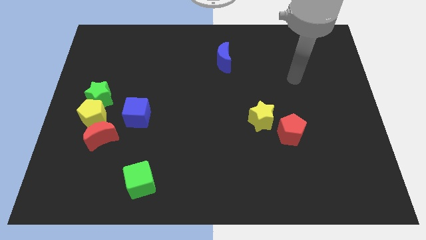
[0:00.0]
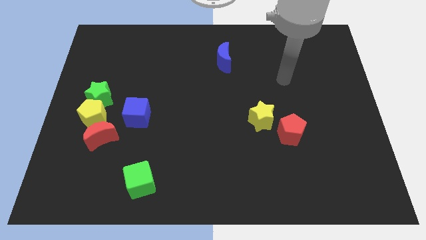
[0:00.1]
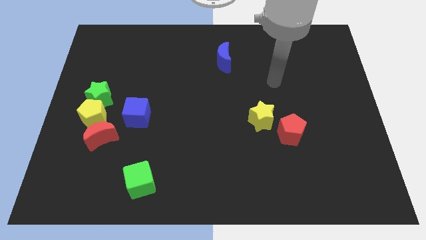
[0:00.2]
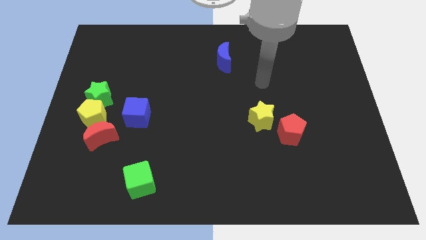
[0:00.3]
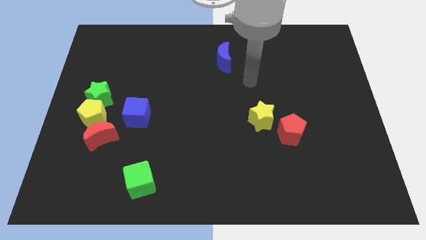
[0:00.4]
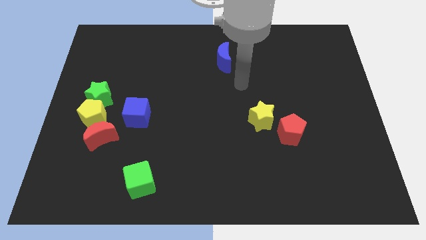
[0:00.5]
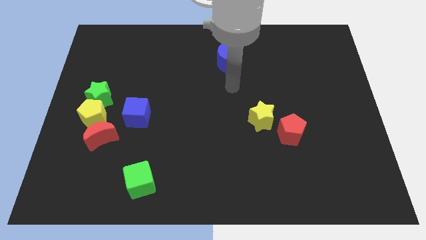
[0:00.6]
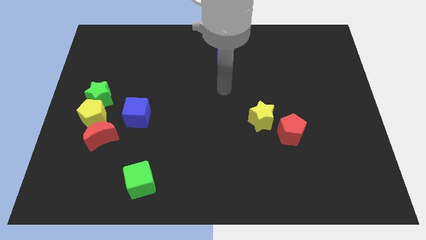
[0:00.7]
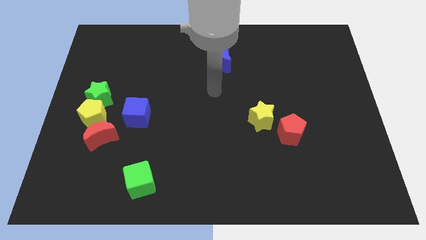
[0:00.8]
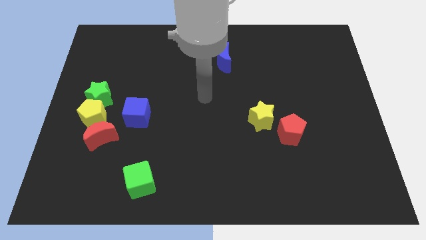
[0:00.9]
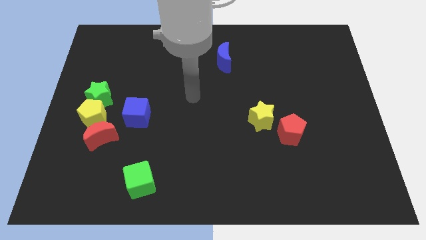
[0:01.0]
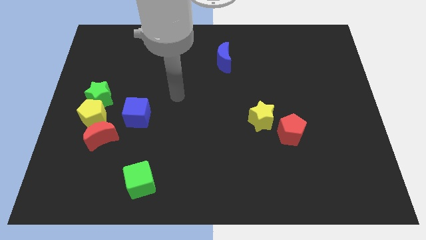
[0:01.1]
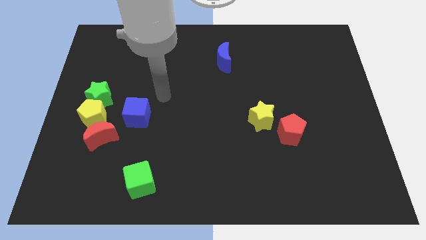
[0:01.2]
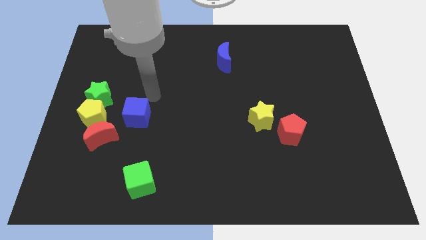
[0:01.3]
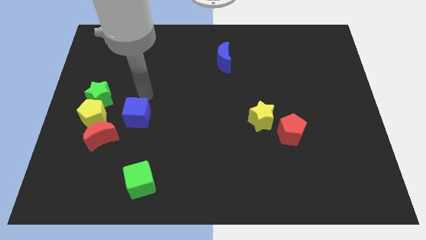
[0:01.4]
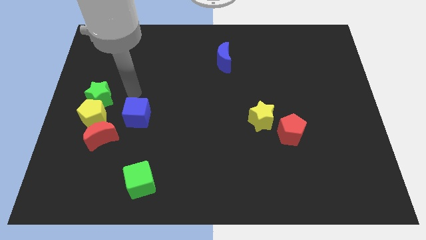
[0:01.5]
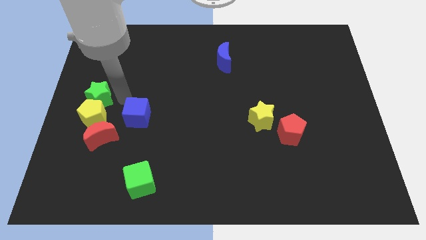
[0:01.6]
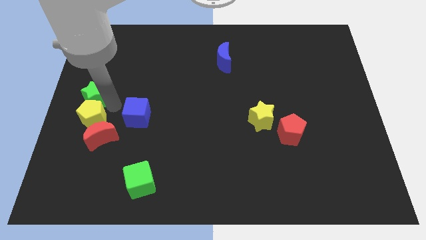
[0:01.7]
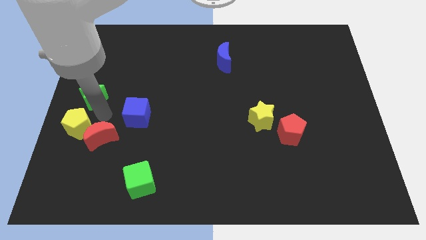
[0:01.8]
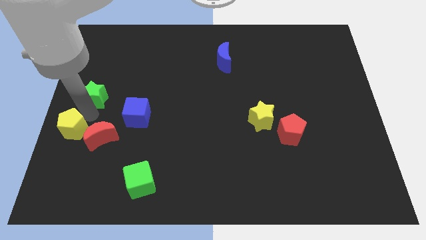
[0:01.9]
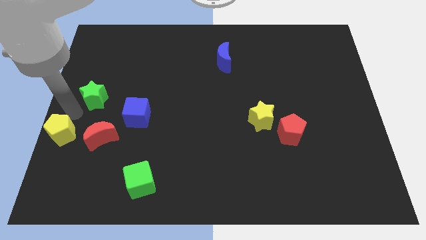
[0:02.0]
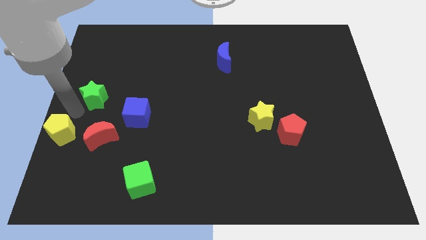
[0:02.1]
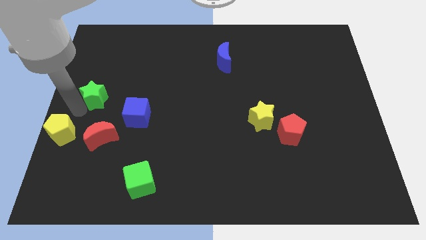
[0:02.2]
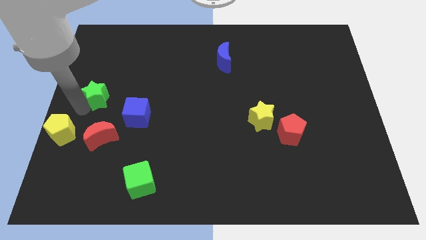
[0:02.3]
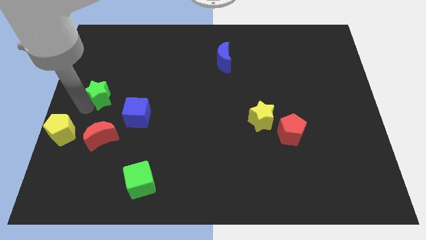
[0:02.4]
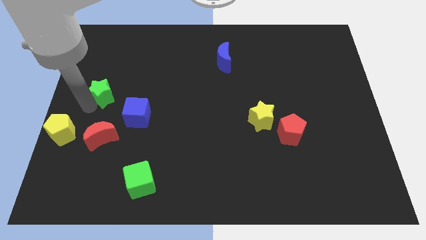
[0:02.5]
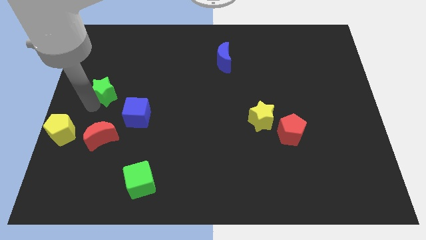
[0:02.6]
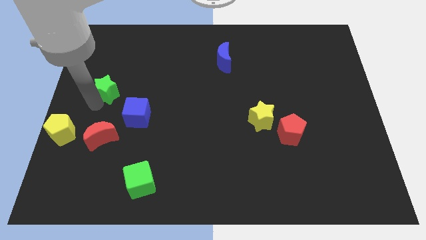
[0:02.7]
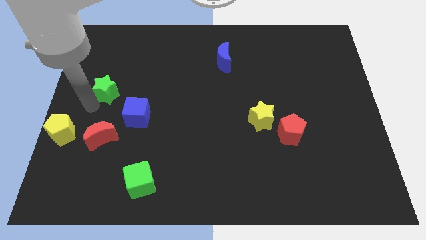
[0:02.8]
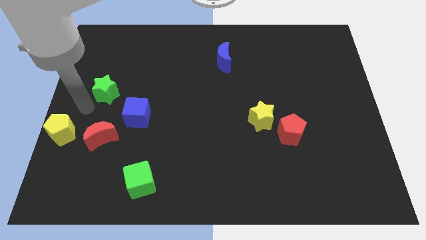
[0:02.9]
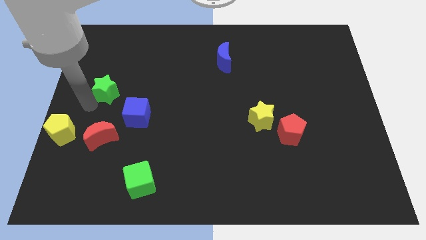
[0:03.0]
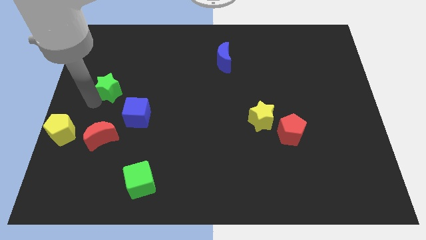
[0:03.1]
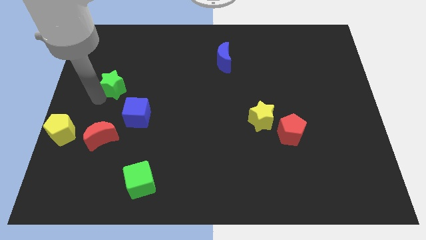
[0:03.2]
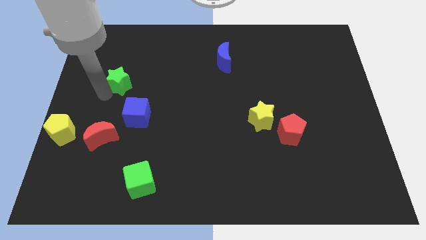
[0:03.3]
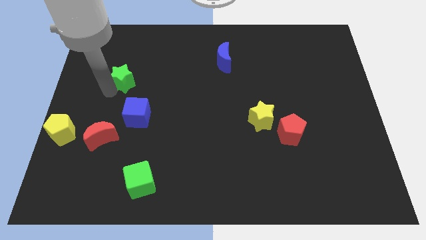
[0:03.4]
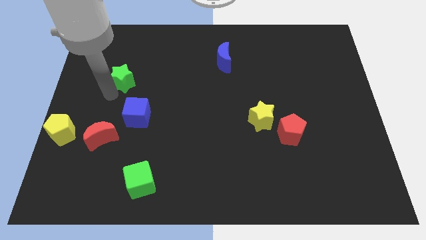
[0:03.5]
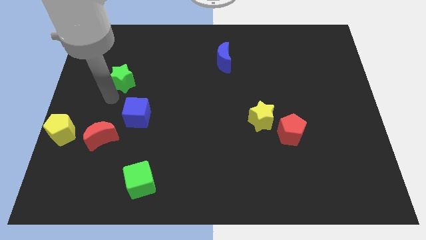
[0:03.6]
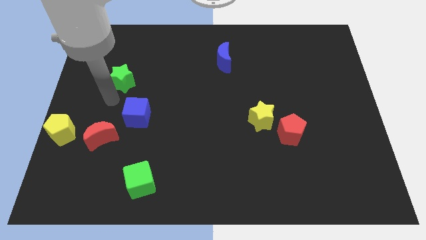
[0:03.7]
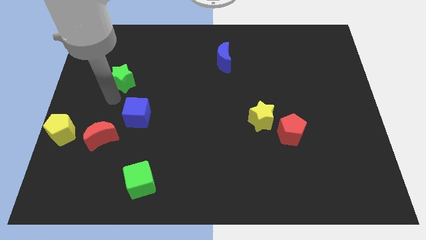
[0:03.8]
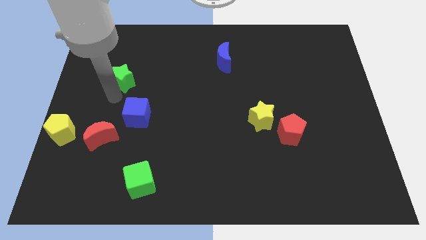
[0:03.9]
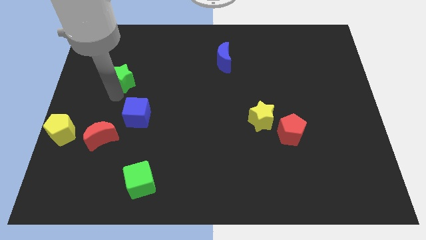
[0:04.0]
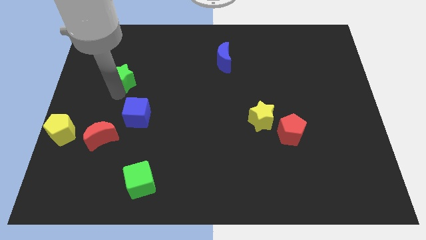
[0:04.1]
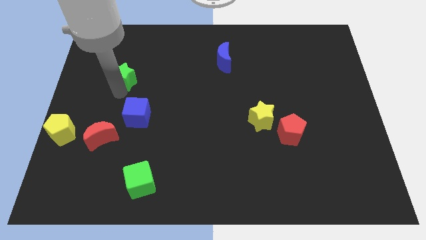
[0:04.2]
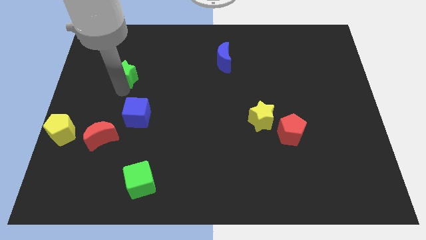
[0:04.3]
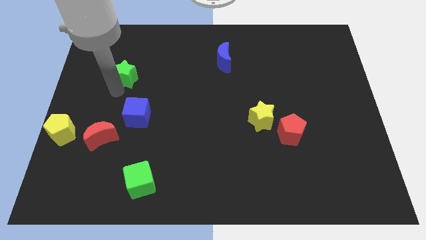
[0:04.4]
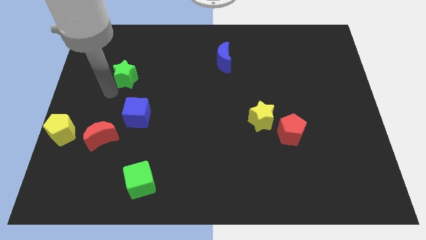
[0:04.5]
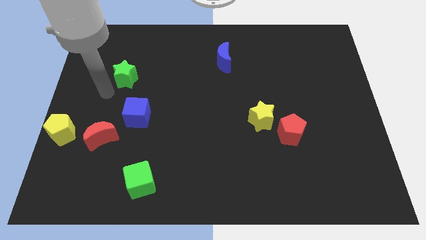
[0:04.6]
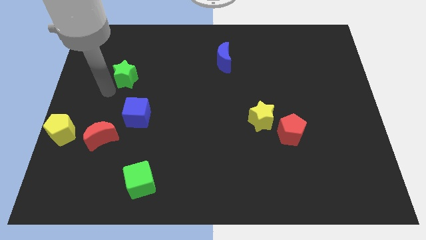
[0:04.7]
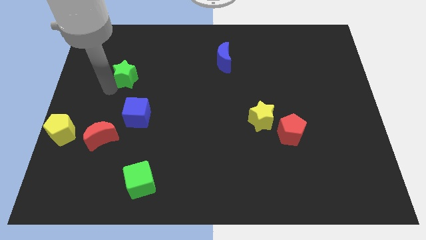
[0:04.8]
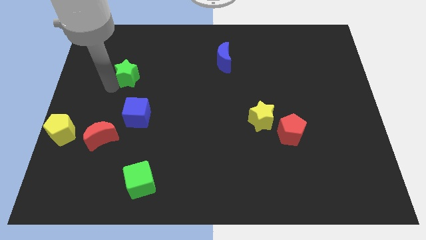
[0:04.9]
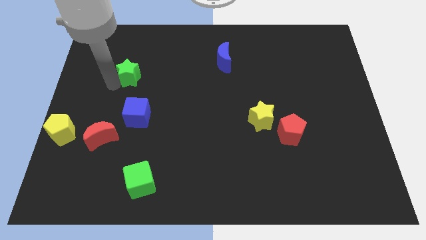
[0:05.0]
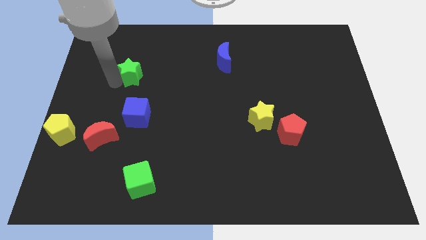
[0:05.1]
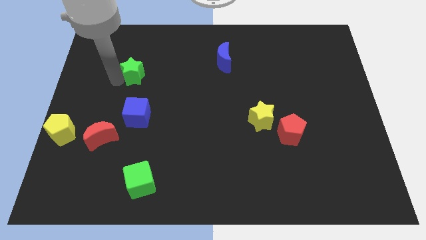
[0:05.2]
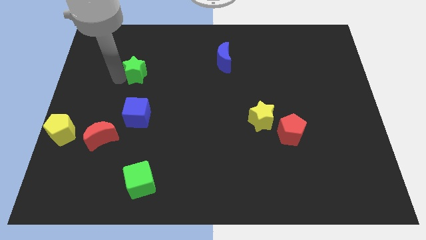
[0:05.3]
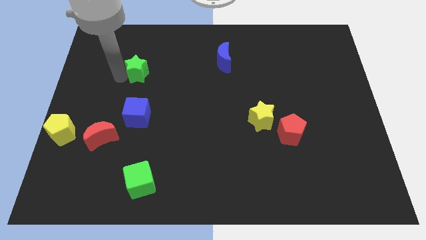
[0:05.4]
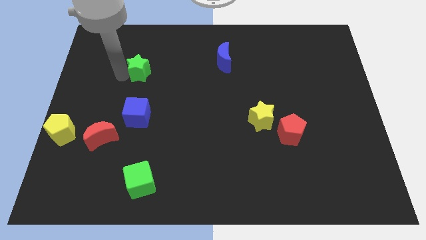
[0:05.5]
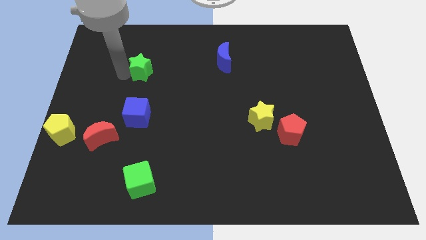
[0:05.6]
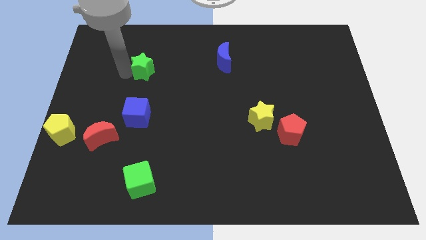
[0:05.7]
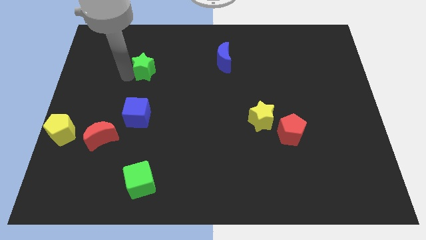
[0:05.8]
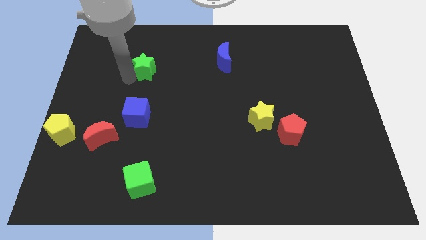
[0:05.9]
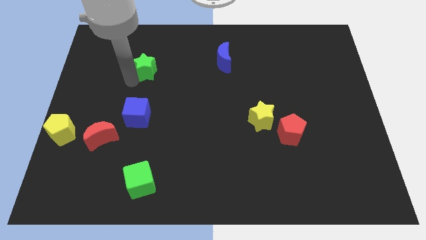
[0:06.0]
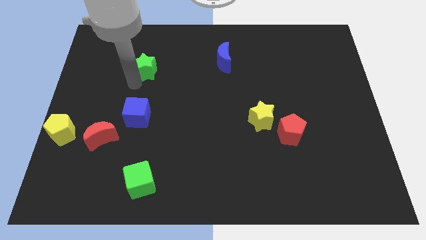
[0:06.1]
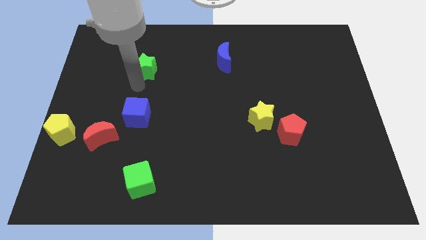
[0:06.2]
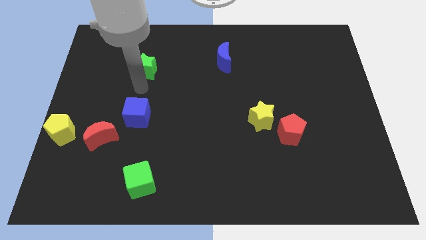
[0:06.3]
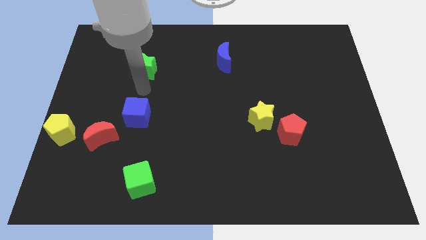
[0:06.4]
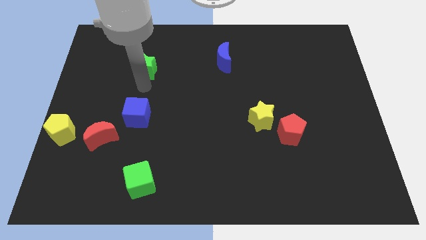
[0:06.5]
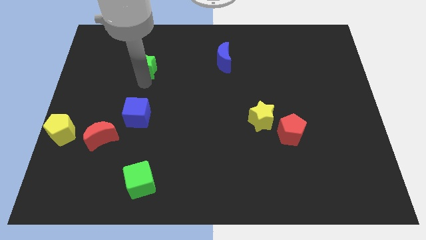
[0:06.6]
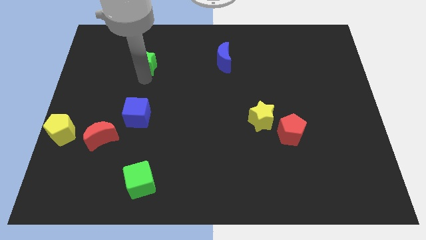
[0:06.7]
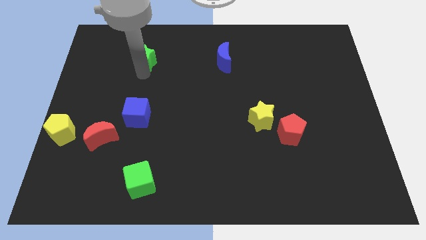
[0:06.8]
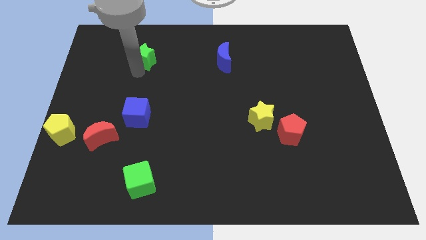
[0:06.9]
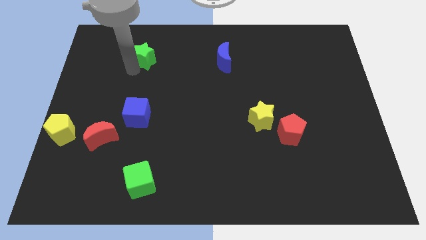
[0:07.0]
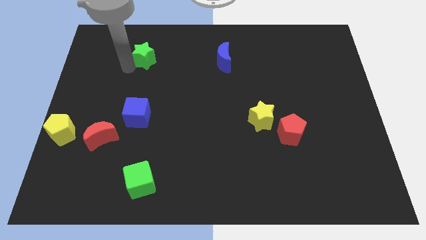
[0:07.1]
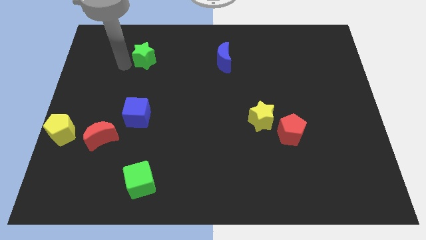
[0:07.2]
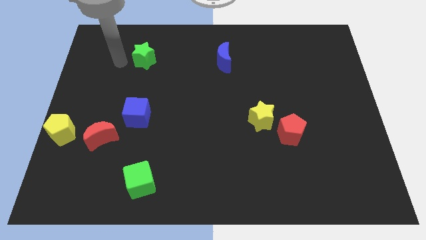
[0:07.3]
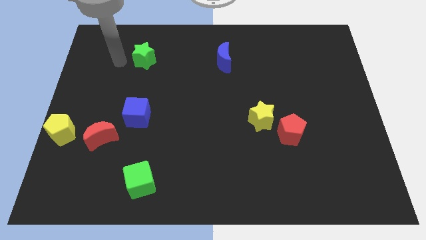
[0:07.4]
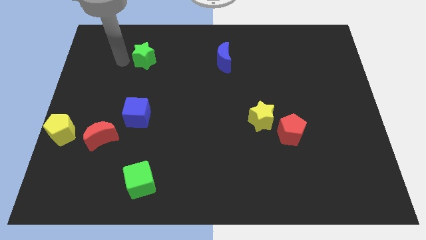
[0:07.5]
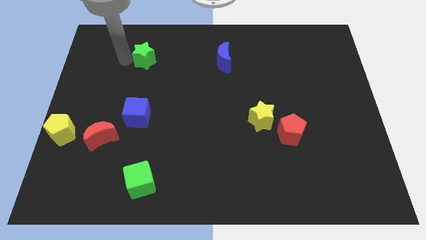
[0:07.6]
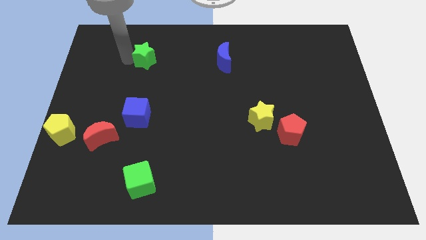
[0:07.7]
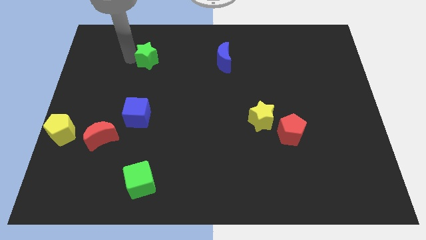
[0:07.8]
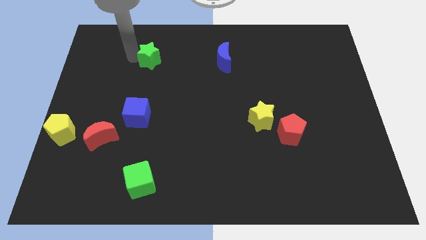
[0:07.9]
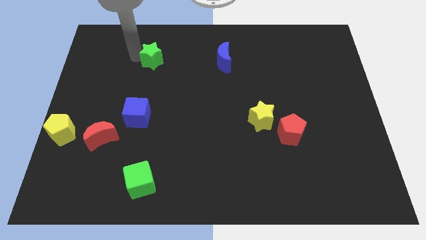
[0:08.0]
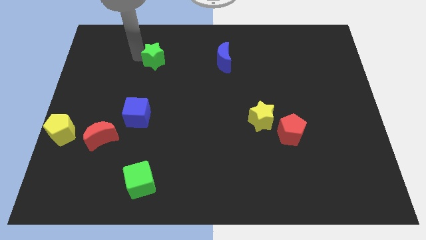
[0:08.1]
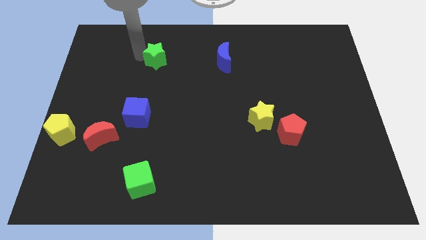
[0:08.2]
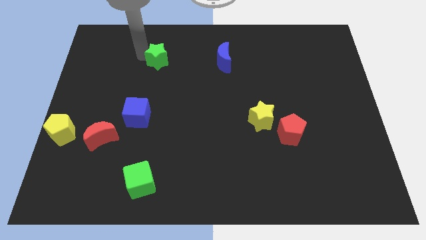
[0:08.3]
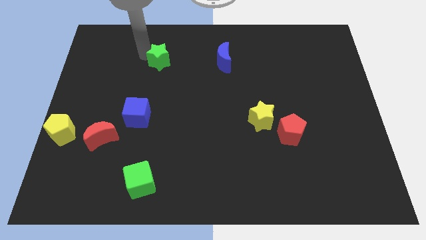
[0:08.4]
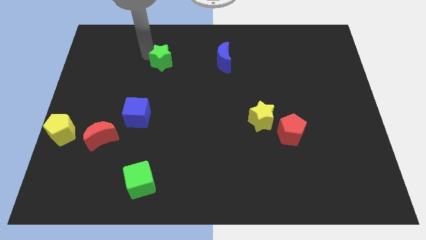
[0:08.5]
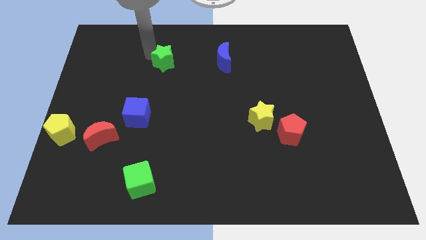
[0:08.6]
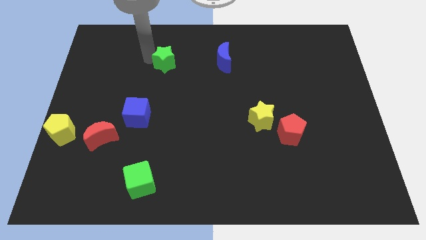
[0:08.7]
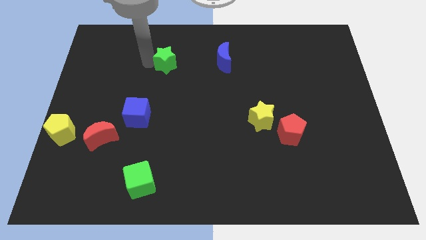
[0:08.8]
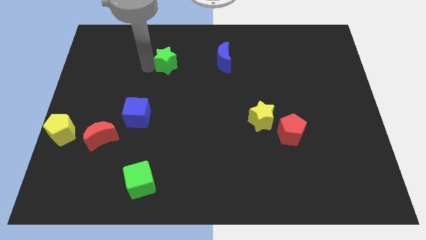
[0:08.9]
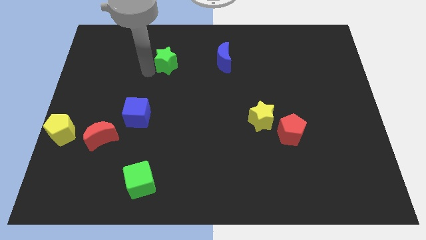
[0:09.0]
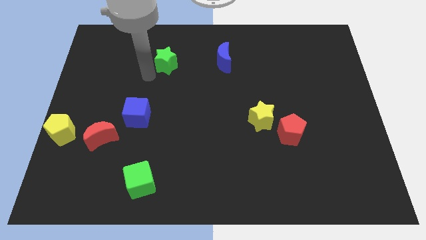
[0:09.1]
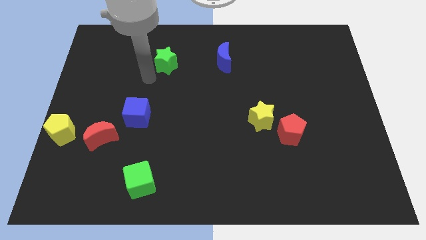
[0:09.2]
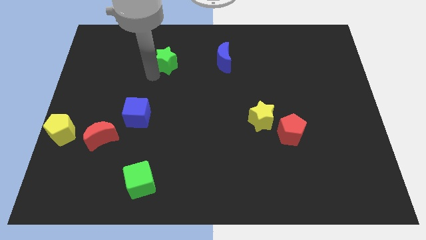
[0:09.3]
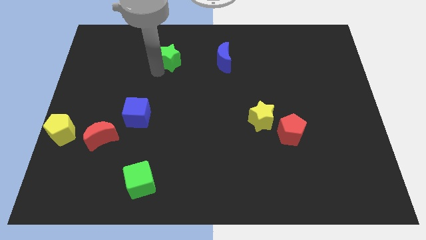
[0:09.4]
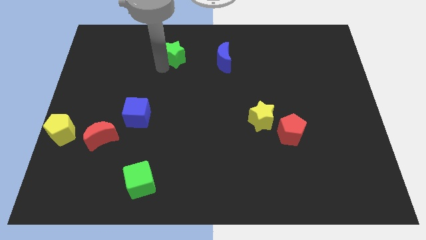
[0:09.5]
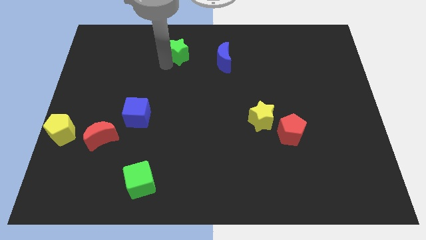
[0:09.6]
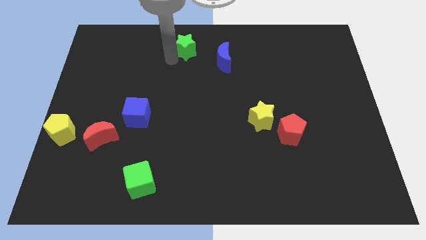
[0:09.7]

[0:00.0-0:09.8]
slide the green star to the towards your base
